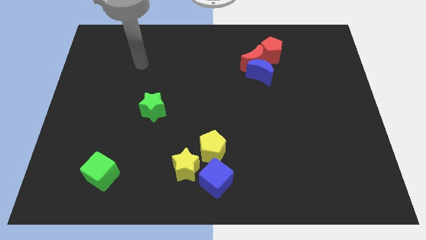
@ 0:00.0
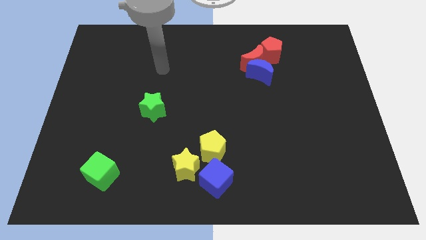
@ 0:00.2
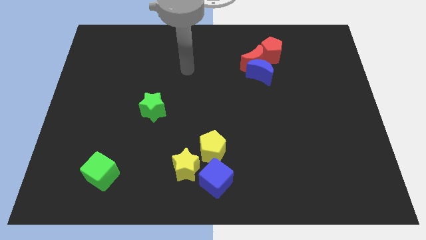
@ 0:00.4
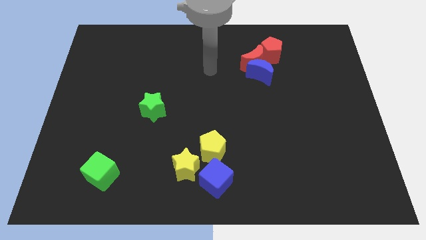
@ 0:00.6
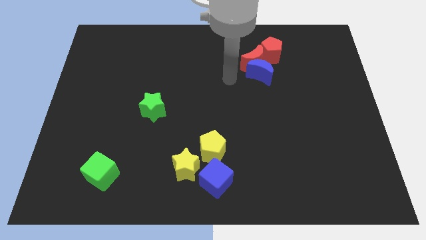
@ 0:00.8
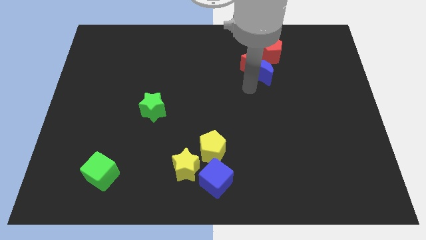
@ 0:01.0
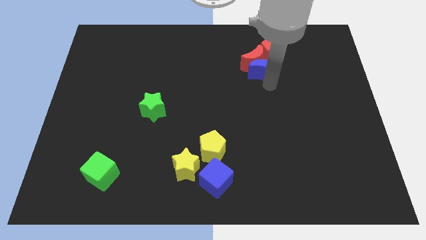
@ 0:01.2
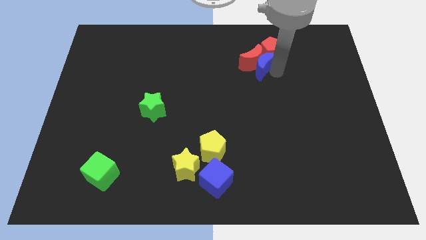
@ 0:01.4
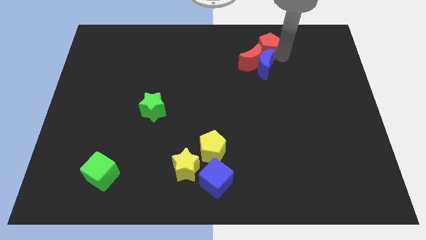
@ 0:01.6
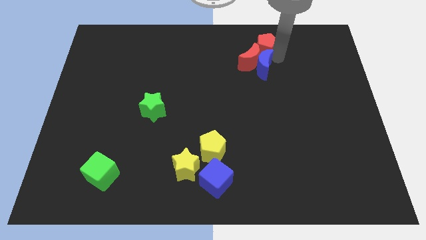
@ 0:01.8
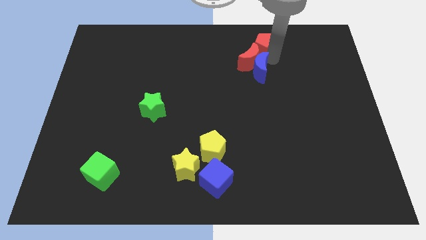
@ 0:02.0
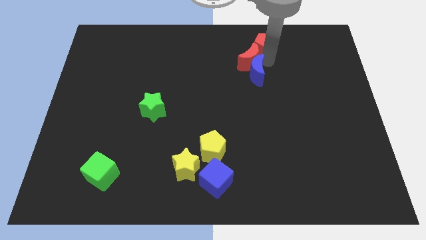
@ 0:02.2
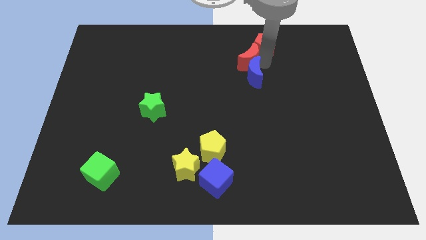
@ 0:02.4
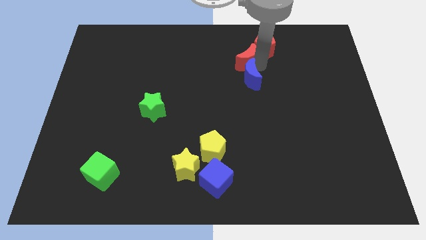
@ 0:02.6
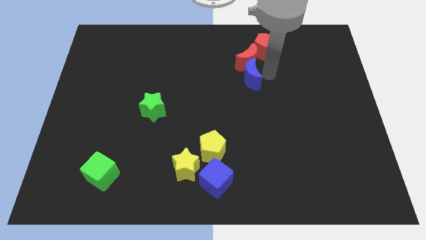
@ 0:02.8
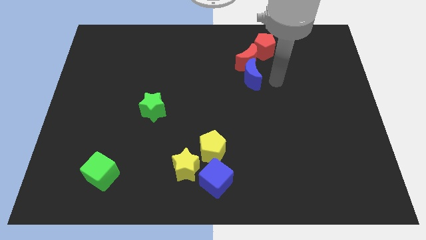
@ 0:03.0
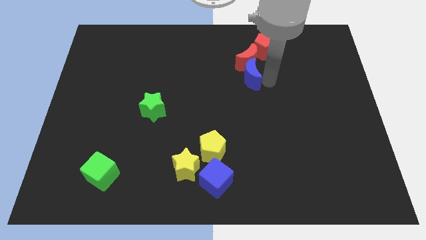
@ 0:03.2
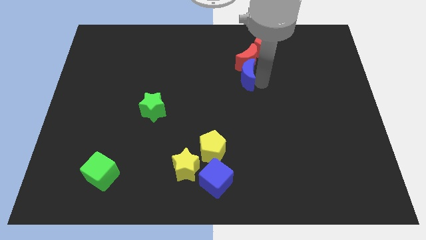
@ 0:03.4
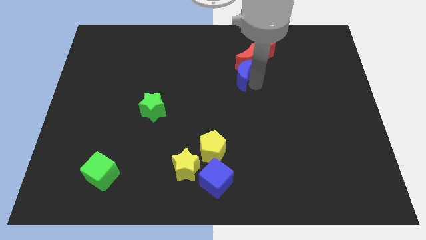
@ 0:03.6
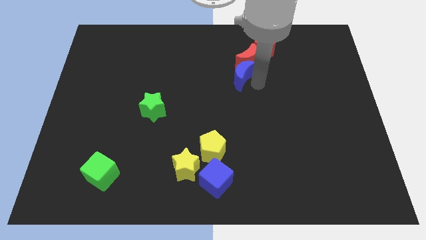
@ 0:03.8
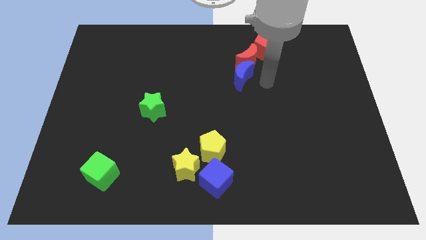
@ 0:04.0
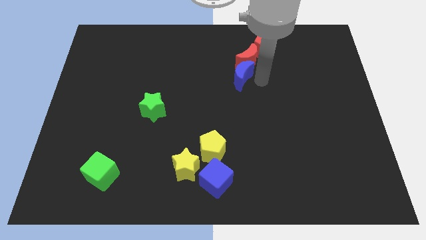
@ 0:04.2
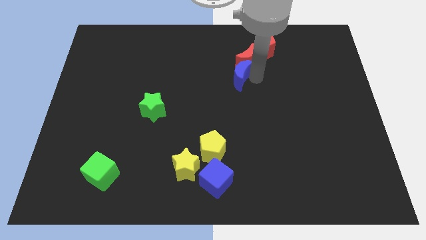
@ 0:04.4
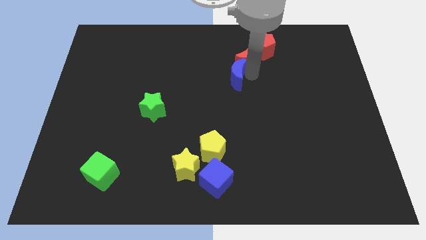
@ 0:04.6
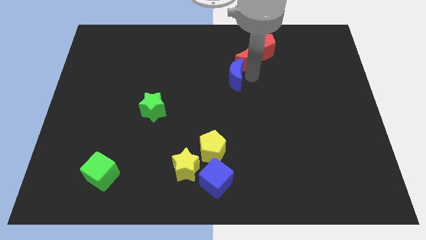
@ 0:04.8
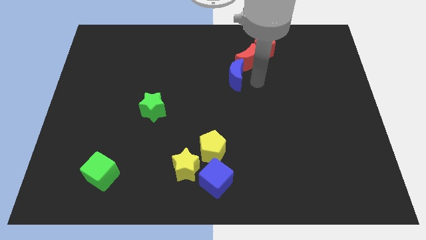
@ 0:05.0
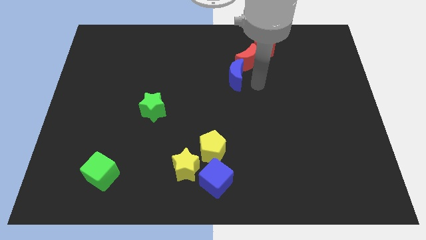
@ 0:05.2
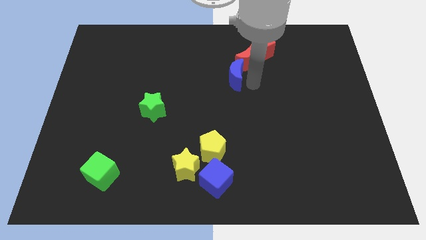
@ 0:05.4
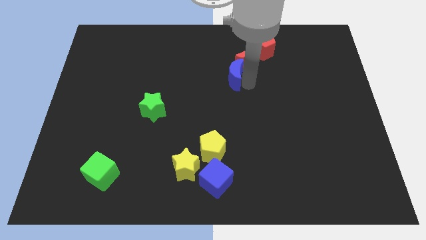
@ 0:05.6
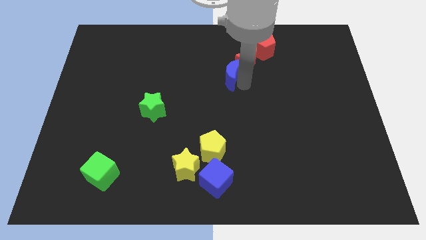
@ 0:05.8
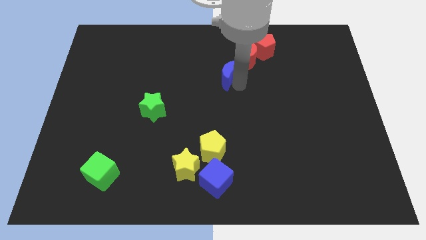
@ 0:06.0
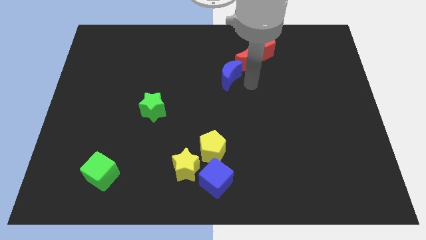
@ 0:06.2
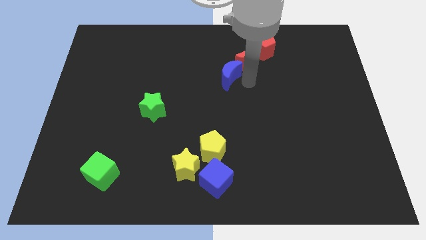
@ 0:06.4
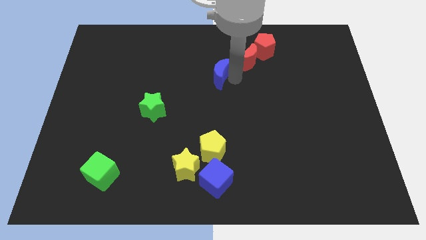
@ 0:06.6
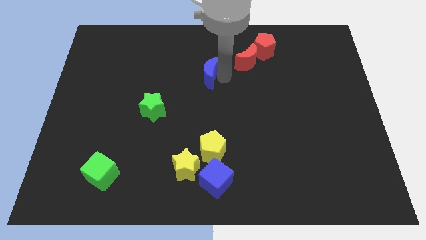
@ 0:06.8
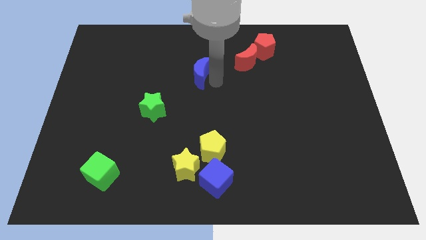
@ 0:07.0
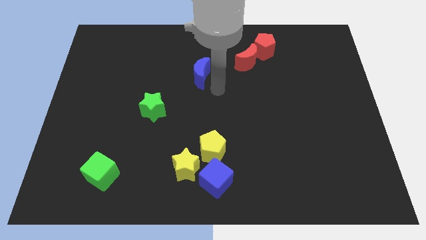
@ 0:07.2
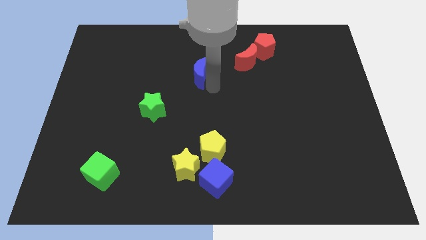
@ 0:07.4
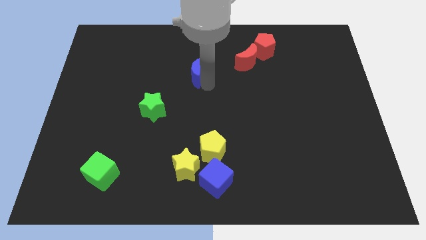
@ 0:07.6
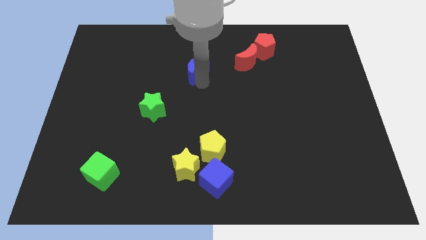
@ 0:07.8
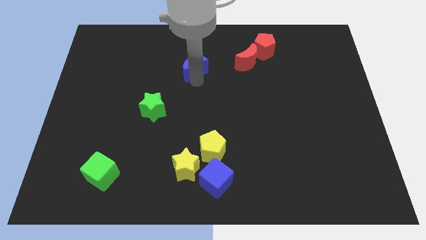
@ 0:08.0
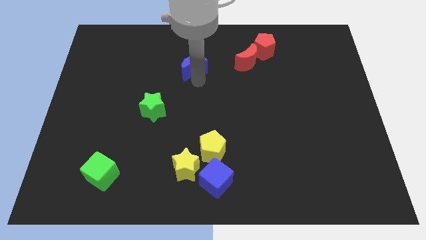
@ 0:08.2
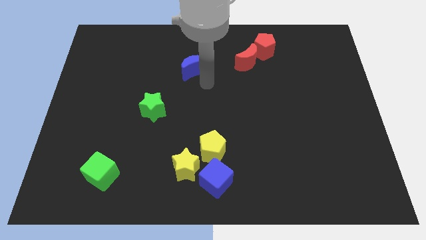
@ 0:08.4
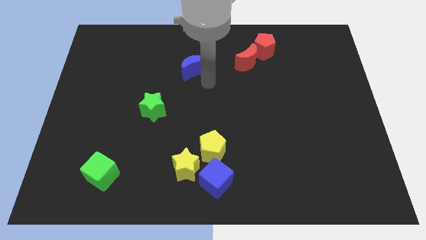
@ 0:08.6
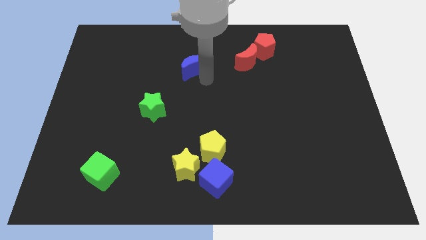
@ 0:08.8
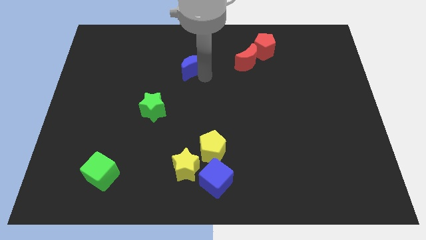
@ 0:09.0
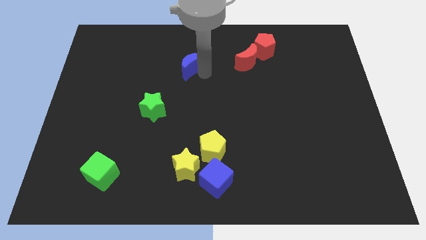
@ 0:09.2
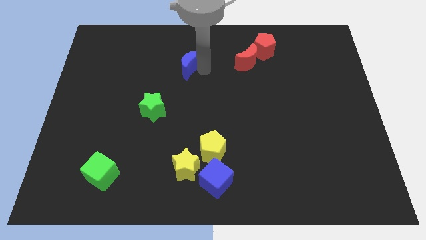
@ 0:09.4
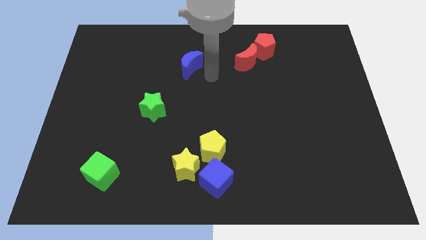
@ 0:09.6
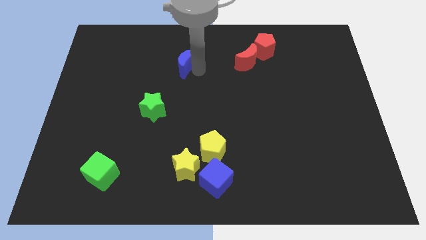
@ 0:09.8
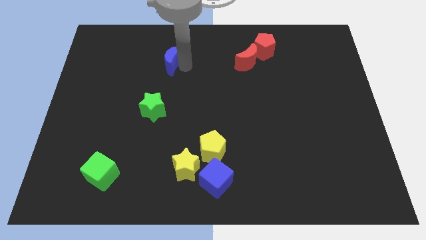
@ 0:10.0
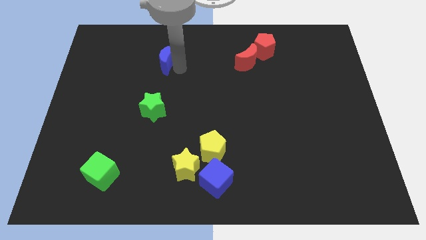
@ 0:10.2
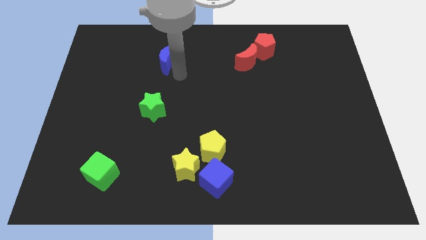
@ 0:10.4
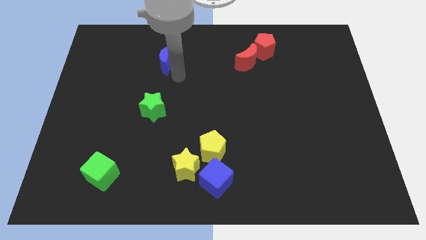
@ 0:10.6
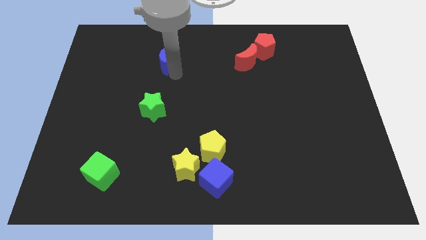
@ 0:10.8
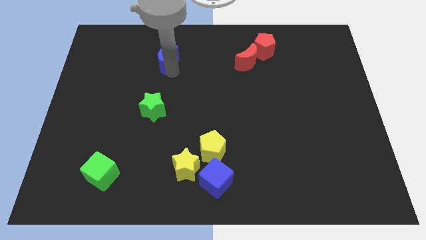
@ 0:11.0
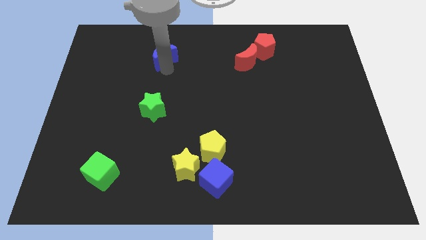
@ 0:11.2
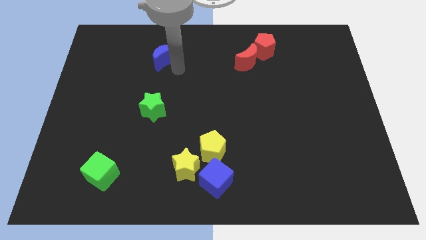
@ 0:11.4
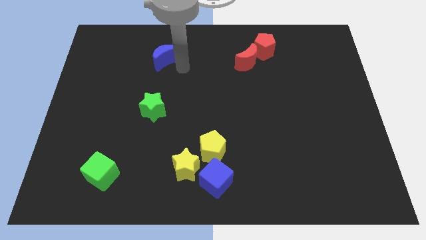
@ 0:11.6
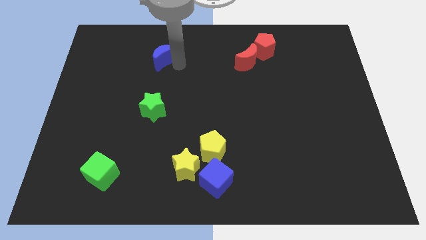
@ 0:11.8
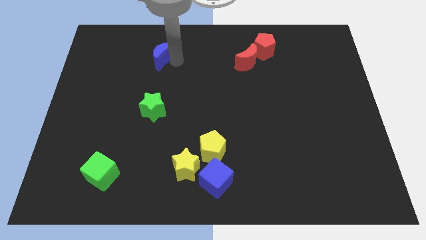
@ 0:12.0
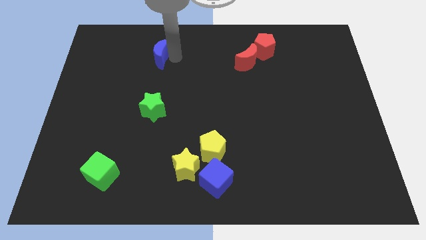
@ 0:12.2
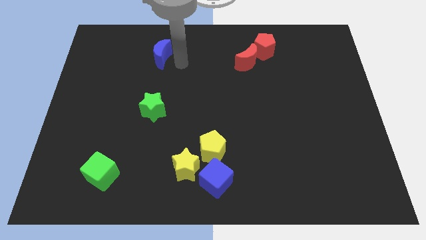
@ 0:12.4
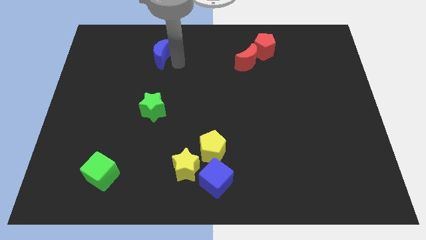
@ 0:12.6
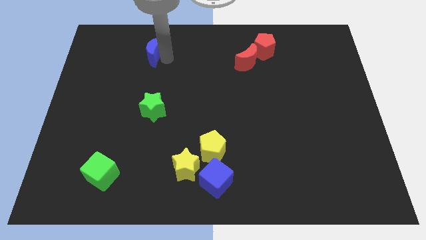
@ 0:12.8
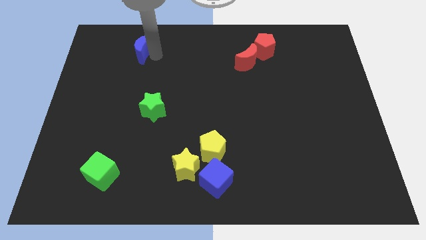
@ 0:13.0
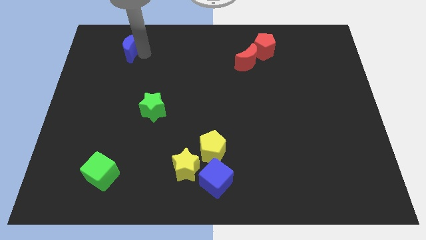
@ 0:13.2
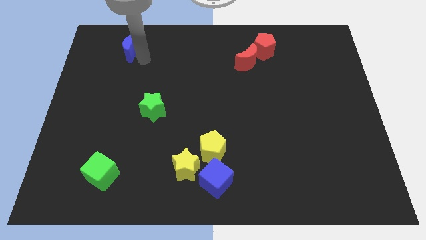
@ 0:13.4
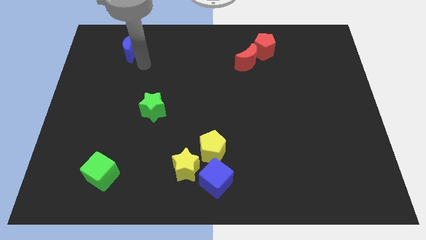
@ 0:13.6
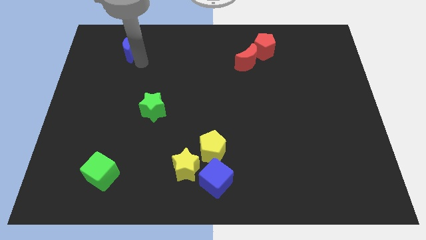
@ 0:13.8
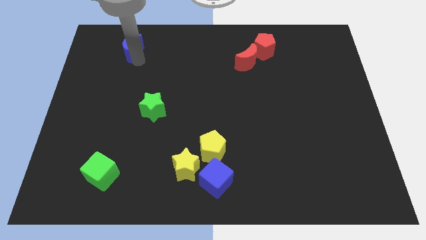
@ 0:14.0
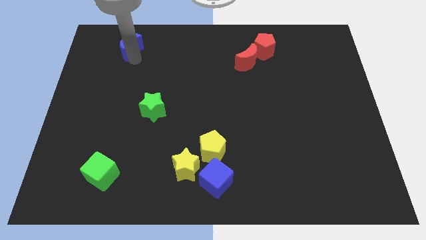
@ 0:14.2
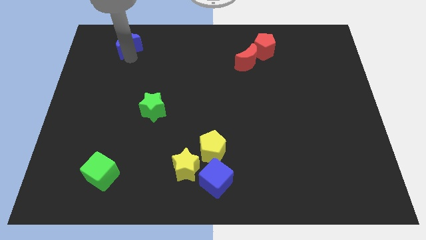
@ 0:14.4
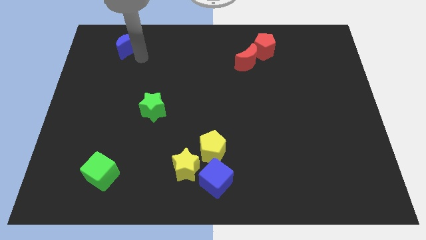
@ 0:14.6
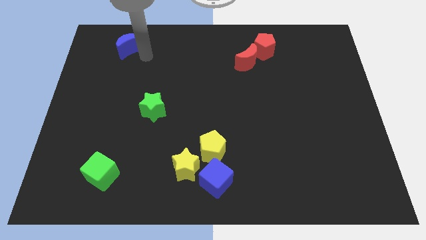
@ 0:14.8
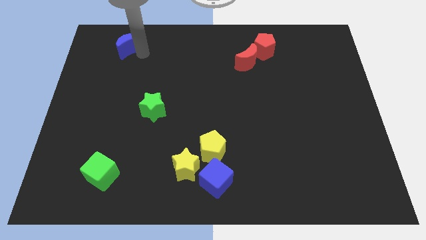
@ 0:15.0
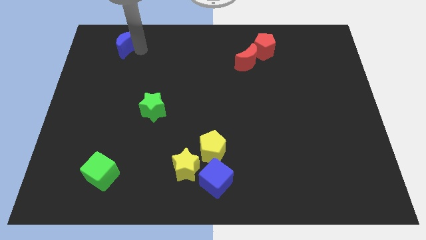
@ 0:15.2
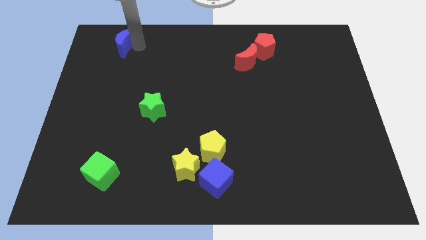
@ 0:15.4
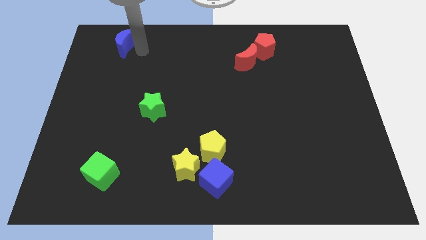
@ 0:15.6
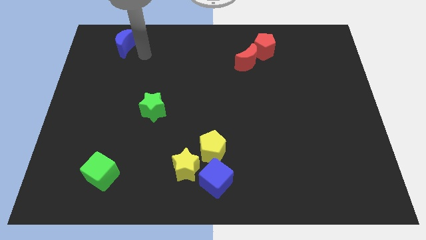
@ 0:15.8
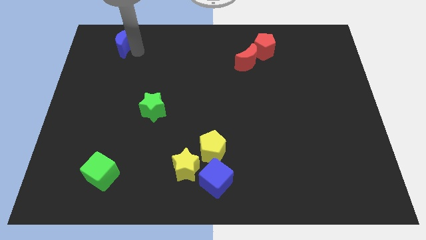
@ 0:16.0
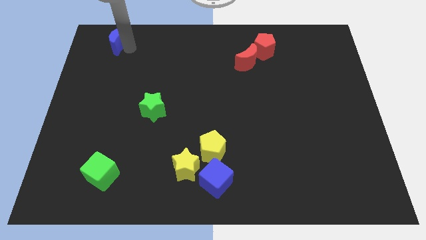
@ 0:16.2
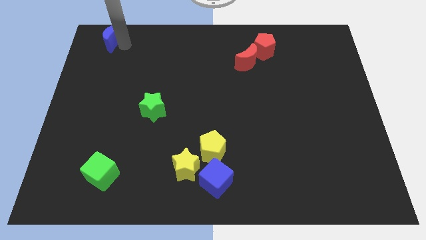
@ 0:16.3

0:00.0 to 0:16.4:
move the blue moon to the top left corner
